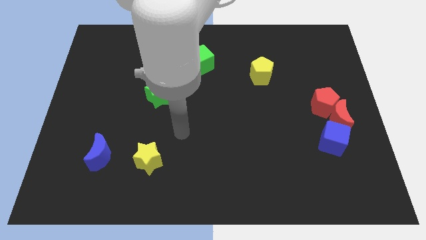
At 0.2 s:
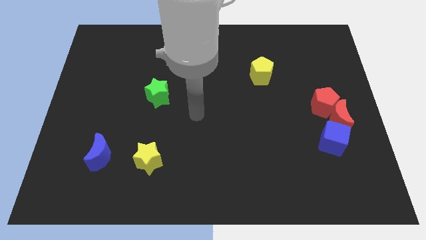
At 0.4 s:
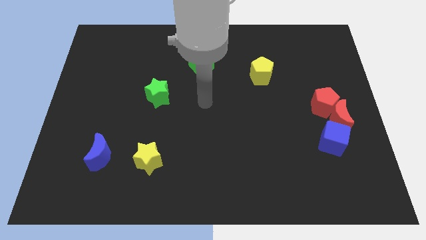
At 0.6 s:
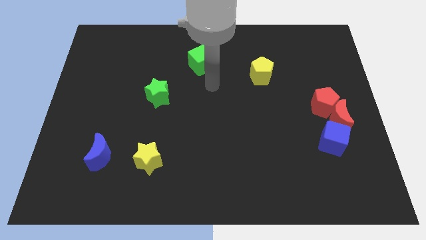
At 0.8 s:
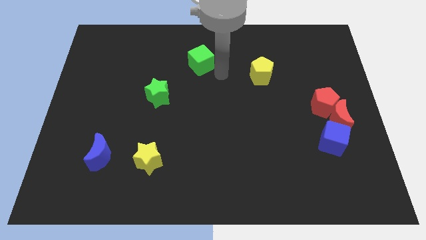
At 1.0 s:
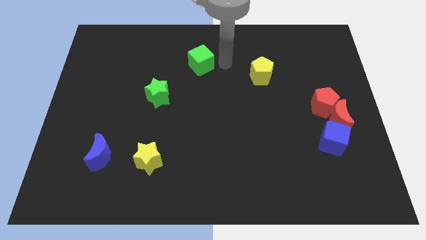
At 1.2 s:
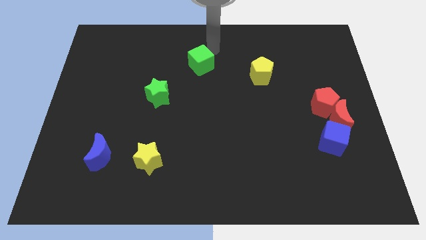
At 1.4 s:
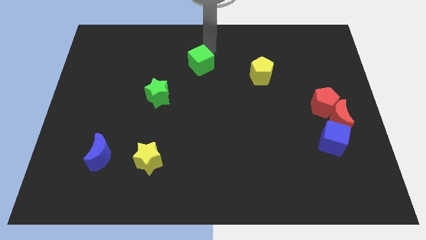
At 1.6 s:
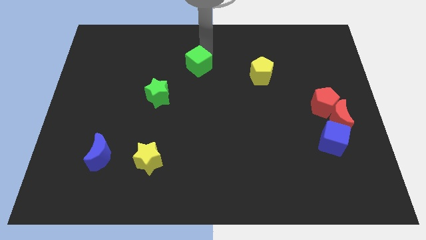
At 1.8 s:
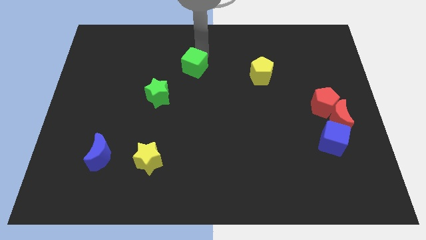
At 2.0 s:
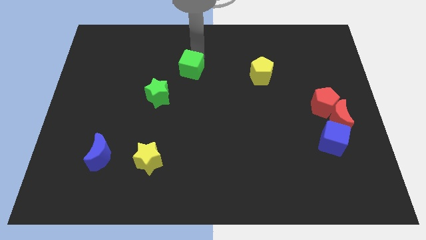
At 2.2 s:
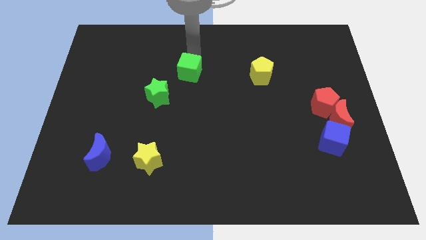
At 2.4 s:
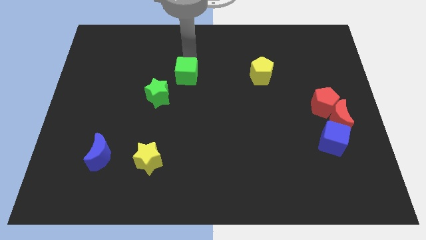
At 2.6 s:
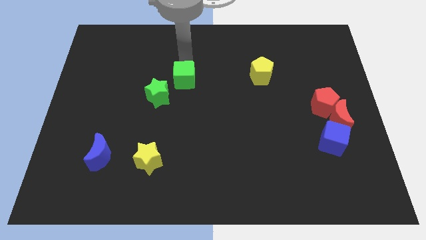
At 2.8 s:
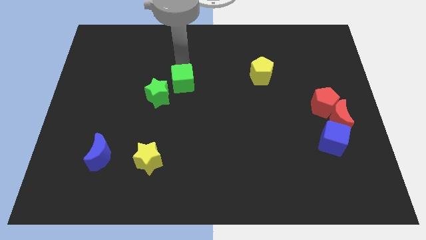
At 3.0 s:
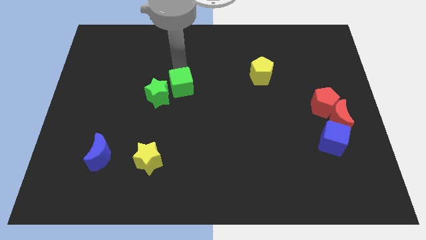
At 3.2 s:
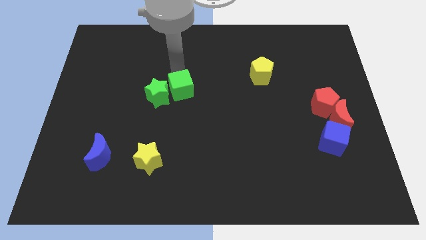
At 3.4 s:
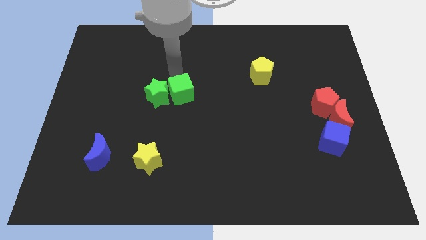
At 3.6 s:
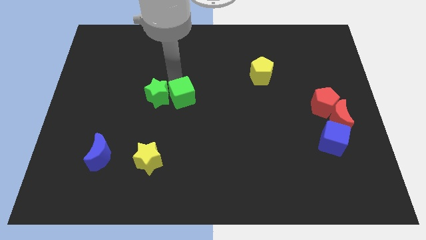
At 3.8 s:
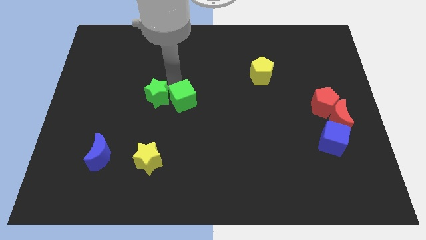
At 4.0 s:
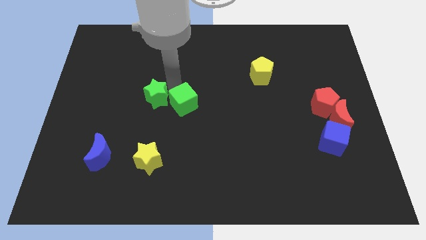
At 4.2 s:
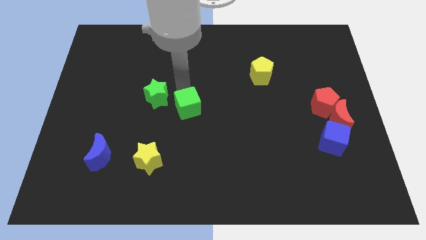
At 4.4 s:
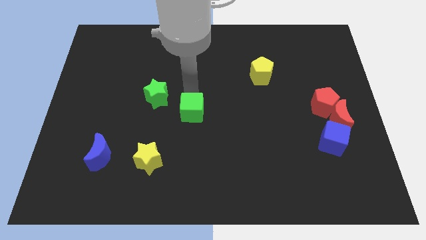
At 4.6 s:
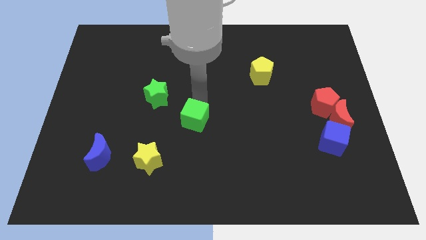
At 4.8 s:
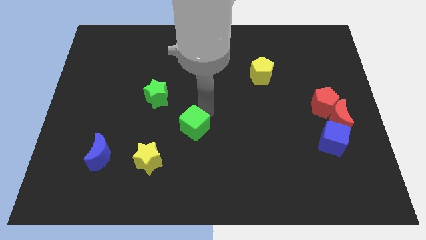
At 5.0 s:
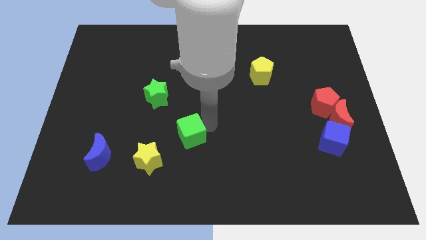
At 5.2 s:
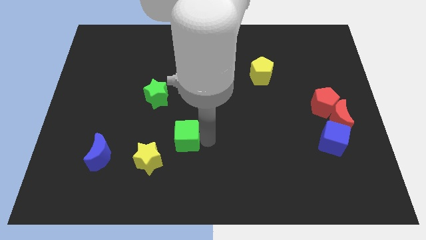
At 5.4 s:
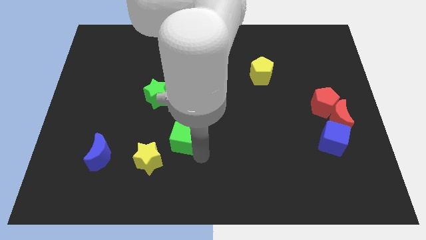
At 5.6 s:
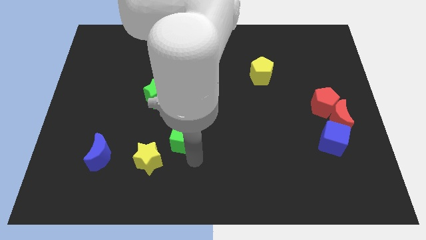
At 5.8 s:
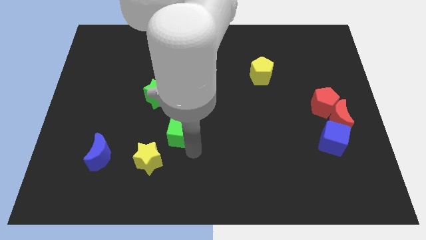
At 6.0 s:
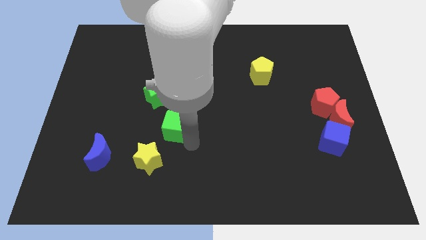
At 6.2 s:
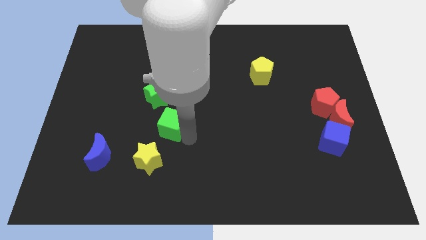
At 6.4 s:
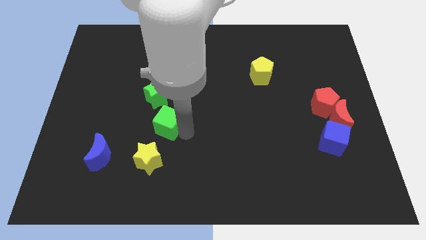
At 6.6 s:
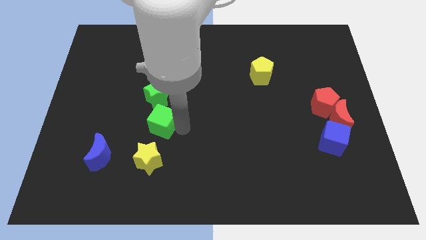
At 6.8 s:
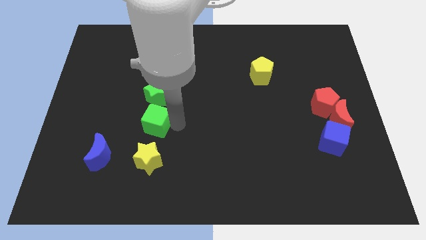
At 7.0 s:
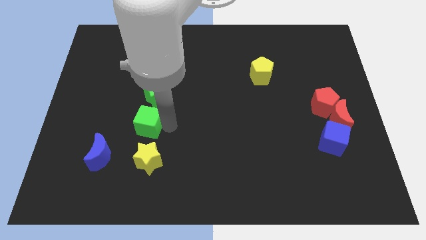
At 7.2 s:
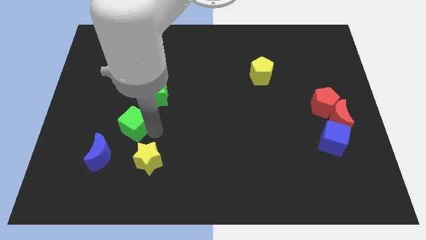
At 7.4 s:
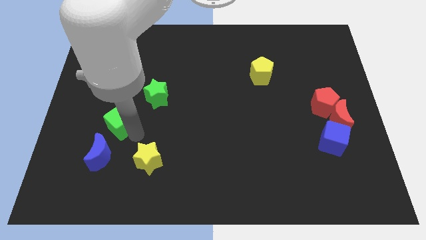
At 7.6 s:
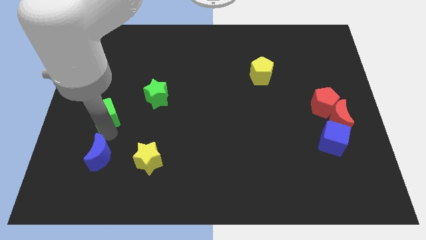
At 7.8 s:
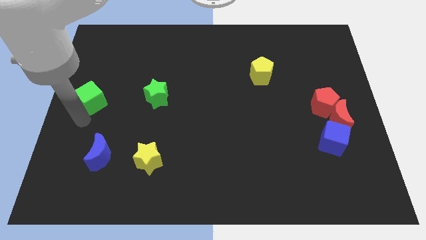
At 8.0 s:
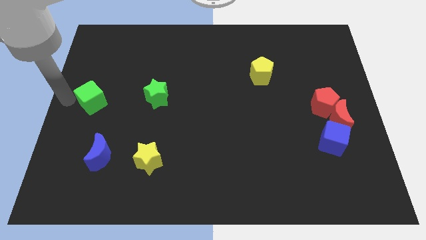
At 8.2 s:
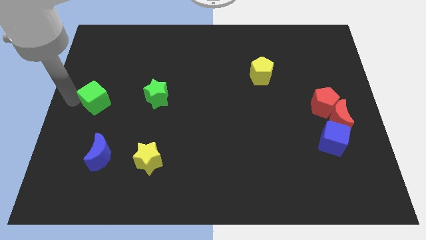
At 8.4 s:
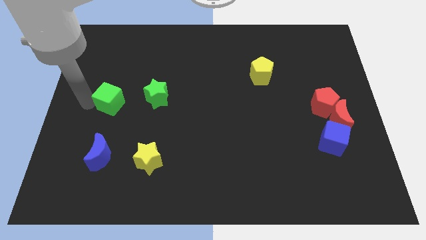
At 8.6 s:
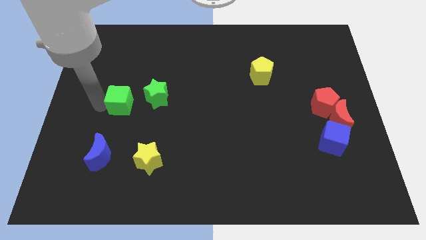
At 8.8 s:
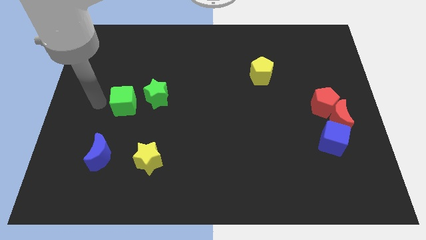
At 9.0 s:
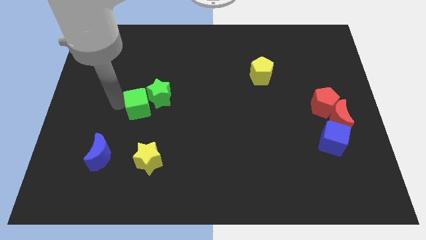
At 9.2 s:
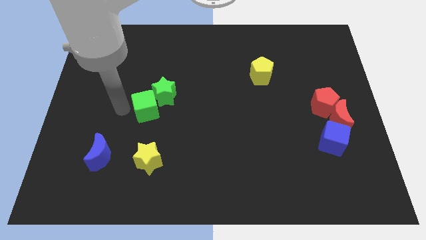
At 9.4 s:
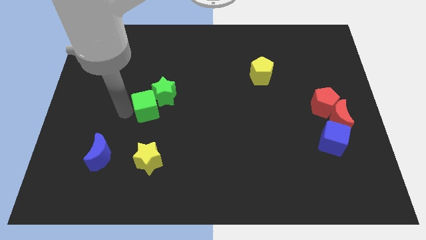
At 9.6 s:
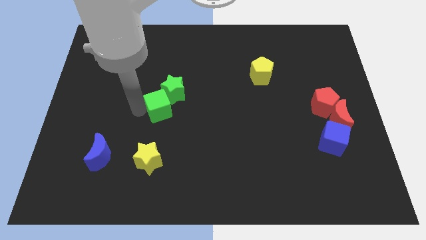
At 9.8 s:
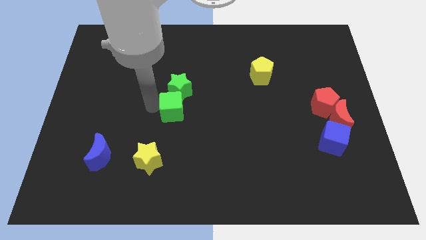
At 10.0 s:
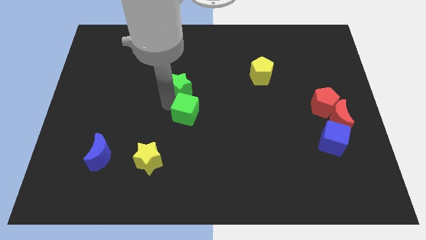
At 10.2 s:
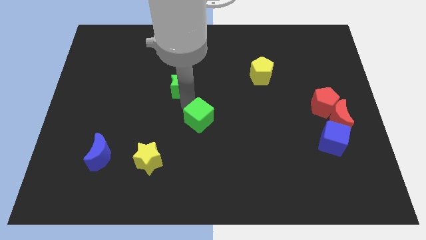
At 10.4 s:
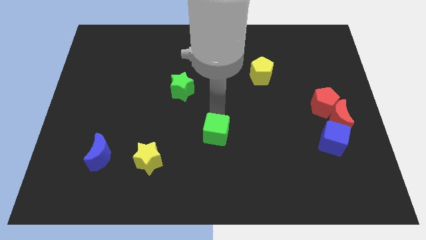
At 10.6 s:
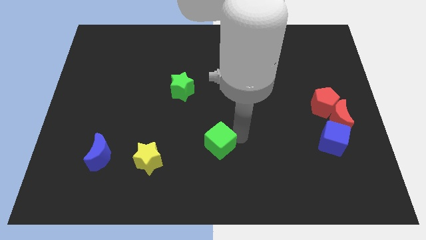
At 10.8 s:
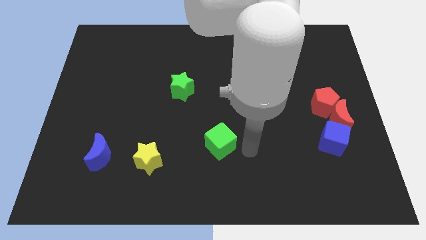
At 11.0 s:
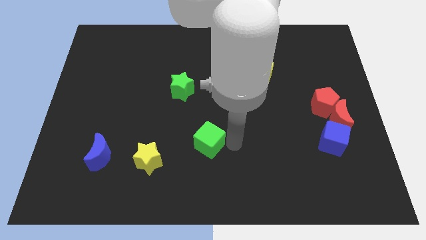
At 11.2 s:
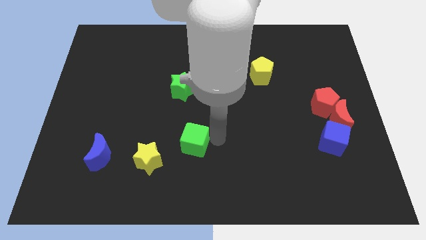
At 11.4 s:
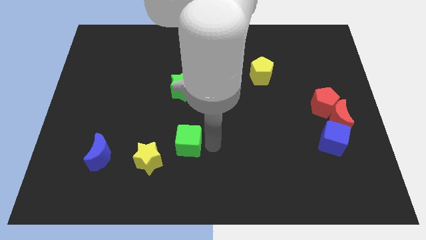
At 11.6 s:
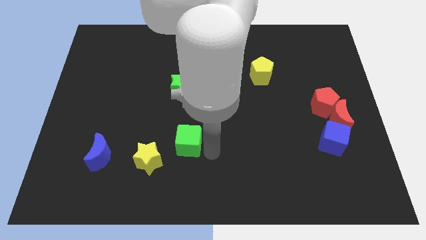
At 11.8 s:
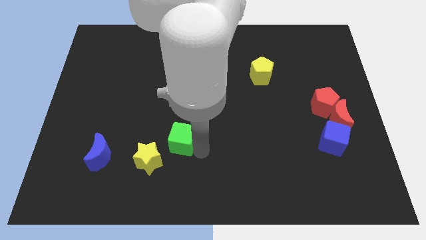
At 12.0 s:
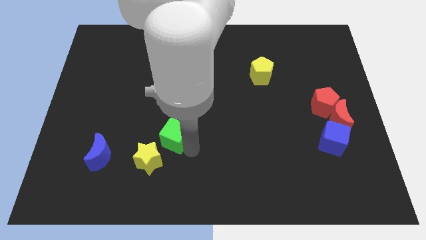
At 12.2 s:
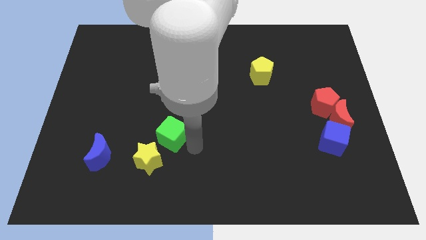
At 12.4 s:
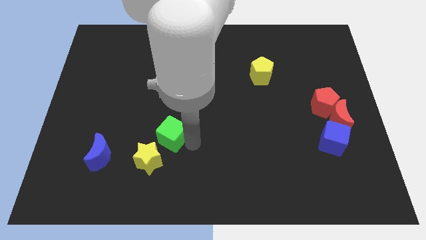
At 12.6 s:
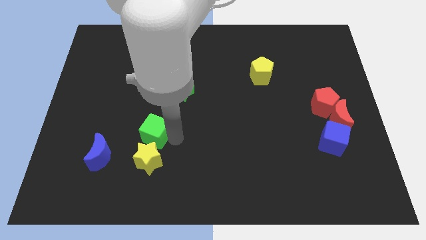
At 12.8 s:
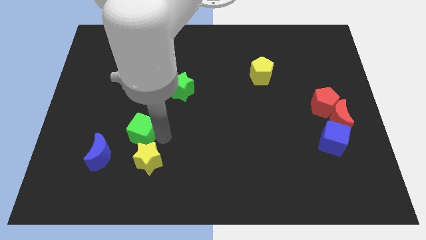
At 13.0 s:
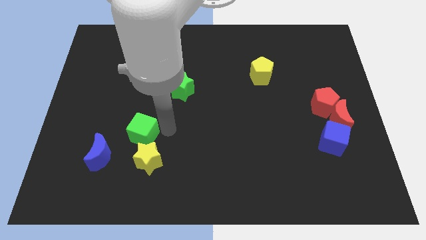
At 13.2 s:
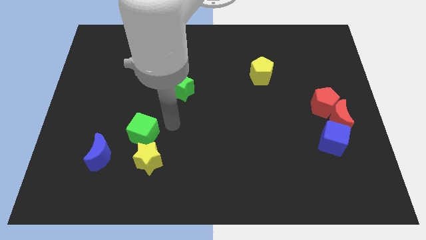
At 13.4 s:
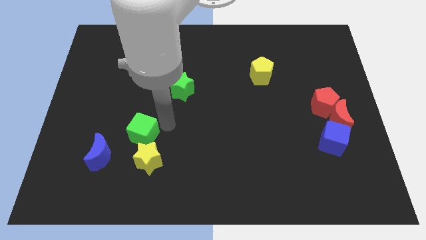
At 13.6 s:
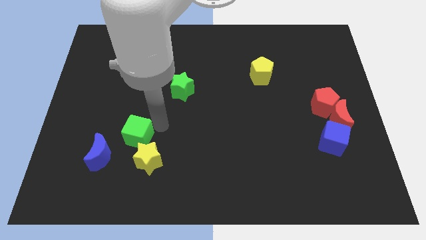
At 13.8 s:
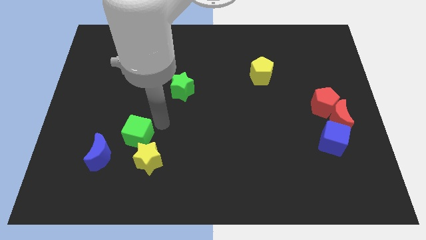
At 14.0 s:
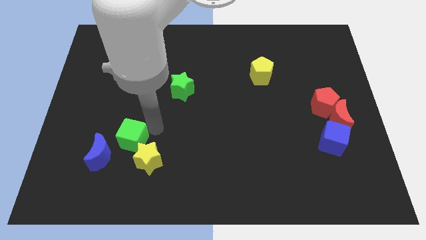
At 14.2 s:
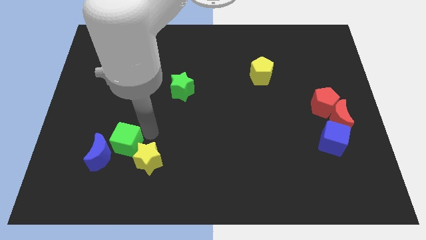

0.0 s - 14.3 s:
move the green cube close to the blue moon

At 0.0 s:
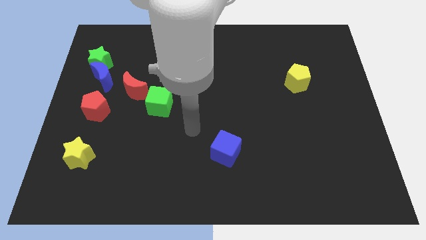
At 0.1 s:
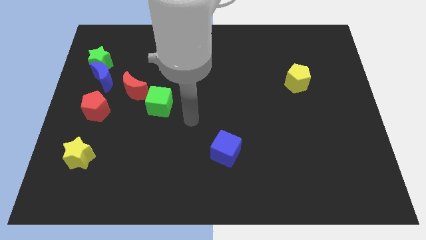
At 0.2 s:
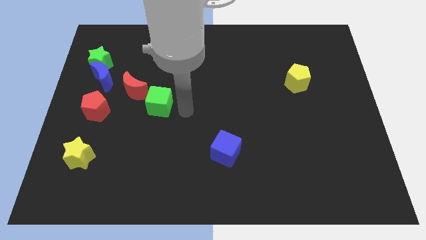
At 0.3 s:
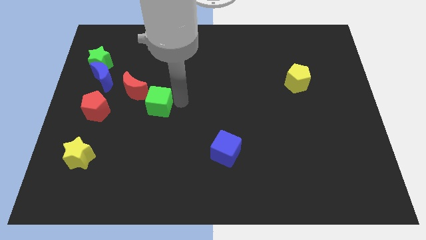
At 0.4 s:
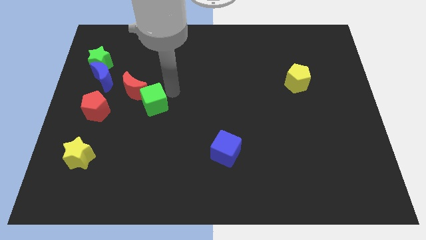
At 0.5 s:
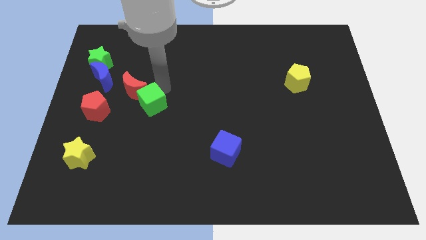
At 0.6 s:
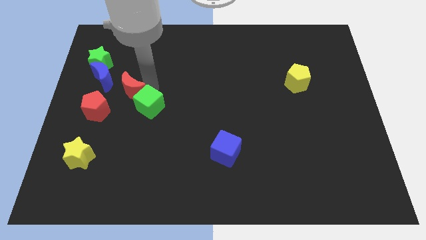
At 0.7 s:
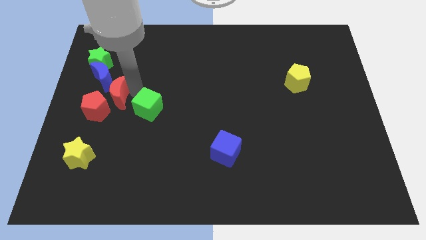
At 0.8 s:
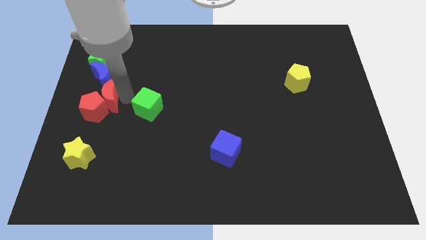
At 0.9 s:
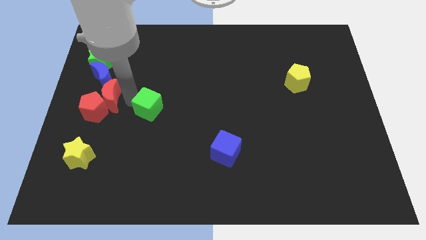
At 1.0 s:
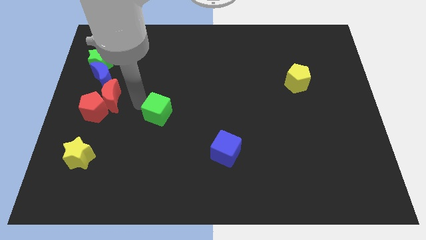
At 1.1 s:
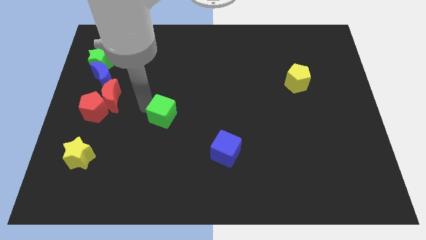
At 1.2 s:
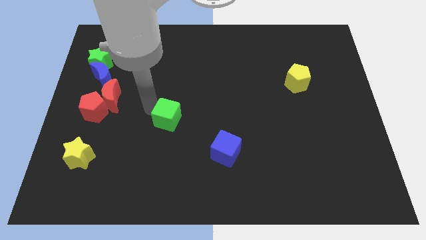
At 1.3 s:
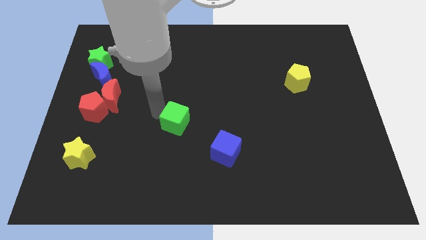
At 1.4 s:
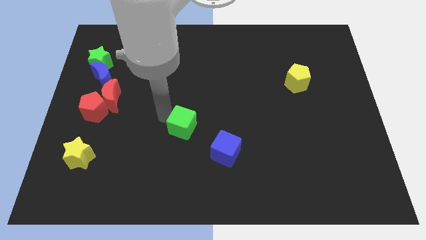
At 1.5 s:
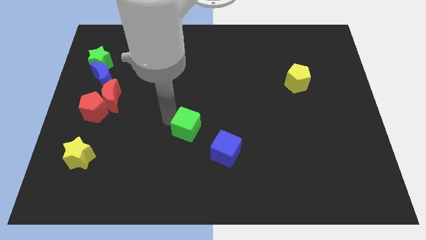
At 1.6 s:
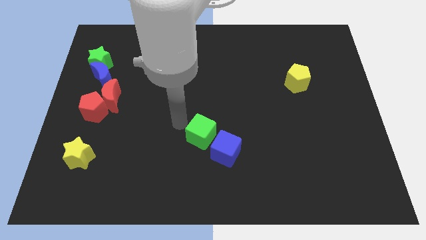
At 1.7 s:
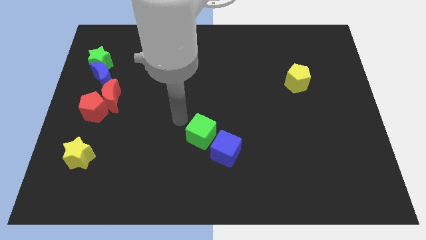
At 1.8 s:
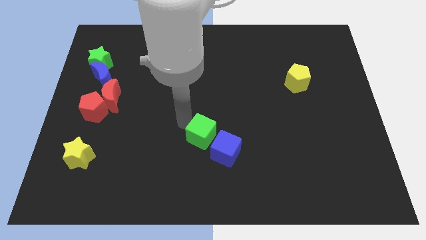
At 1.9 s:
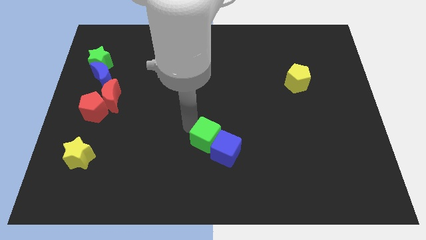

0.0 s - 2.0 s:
slide the green cube to the blue cube
